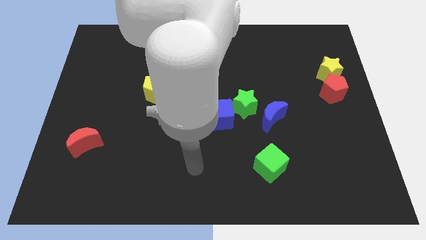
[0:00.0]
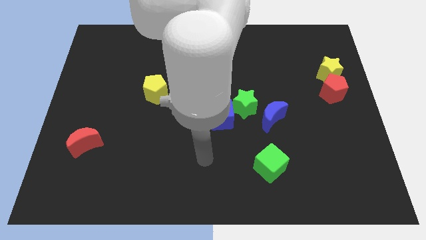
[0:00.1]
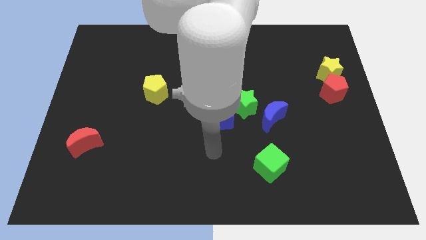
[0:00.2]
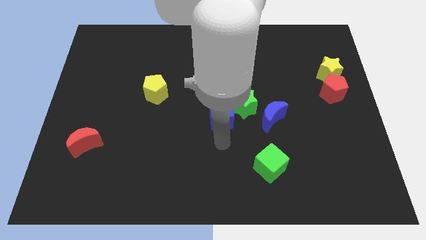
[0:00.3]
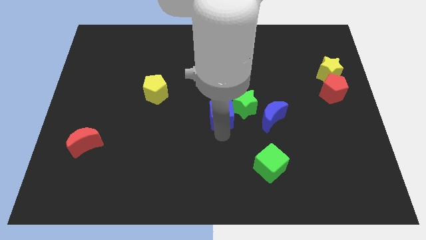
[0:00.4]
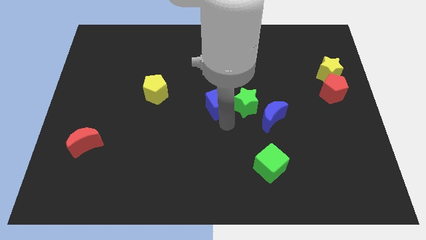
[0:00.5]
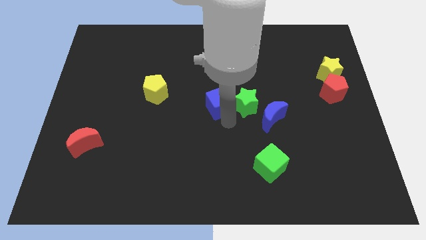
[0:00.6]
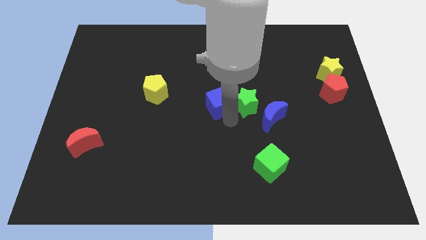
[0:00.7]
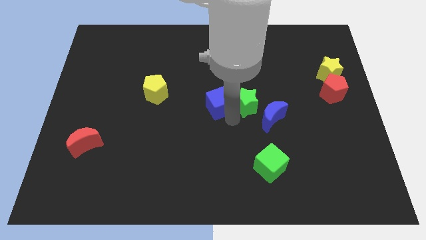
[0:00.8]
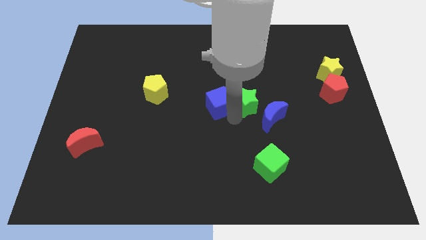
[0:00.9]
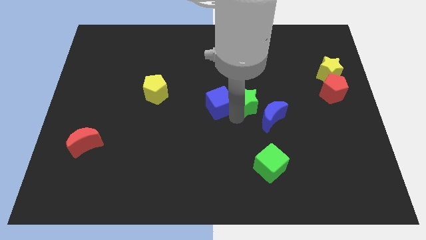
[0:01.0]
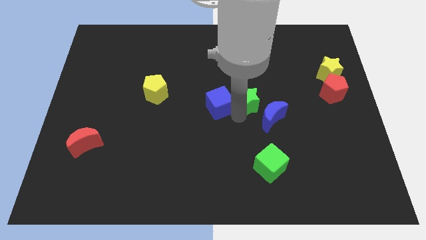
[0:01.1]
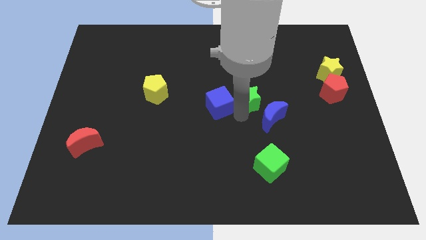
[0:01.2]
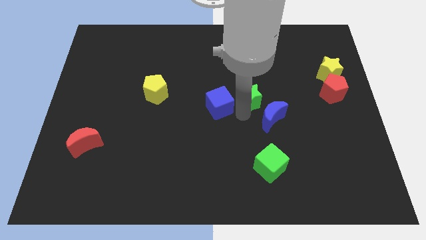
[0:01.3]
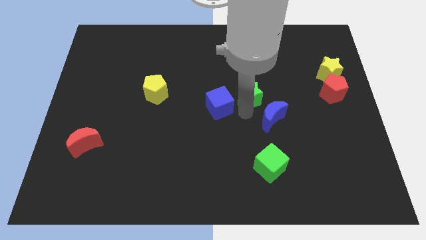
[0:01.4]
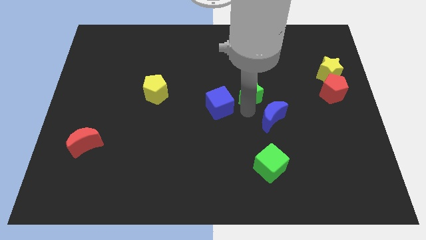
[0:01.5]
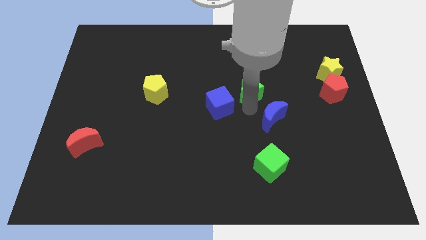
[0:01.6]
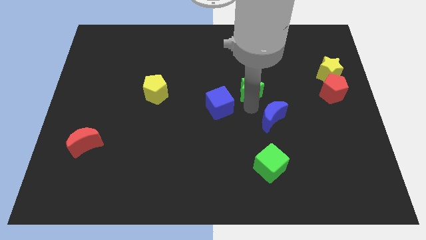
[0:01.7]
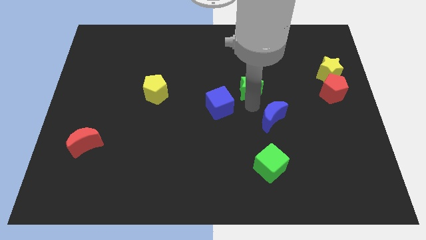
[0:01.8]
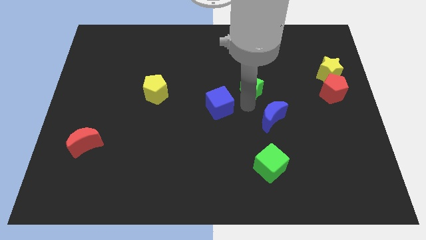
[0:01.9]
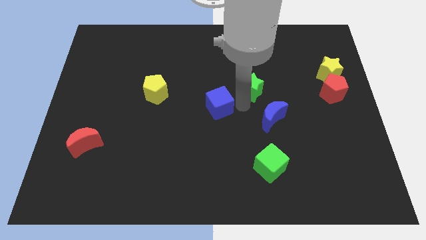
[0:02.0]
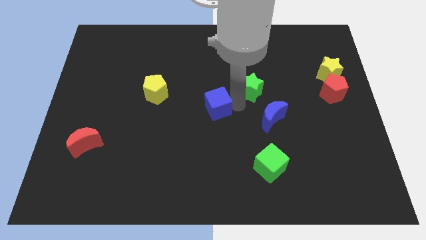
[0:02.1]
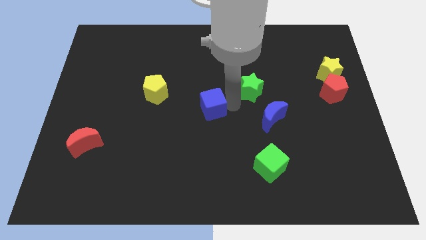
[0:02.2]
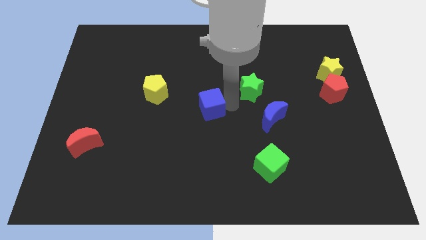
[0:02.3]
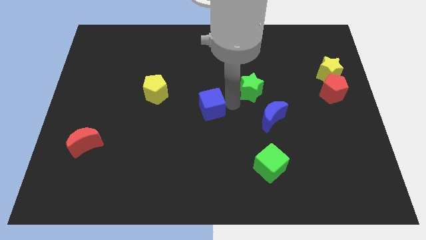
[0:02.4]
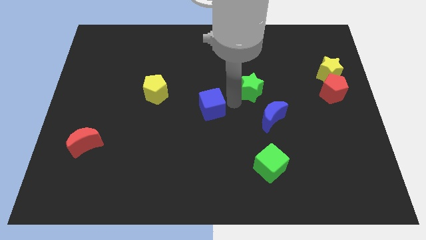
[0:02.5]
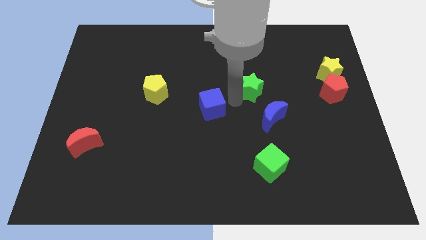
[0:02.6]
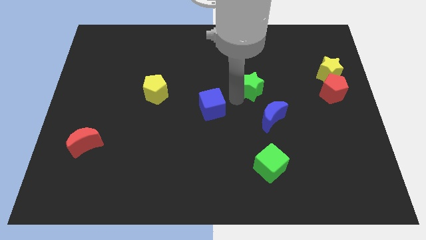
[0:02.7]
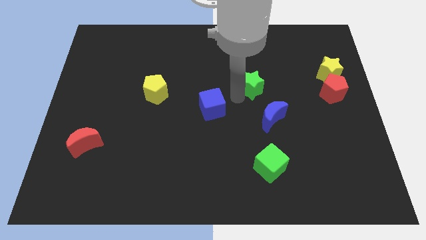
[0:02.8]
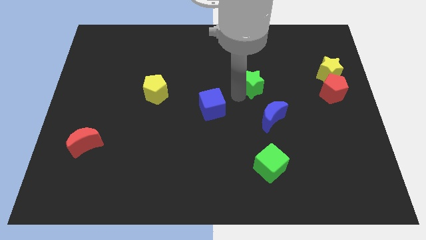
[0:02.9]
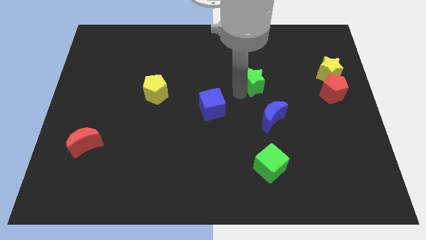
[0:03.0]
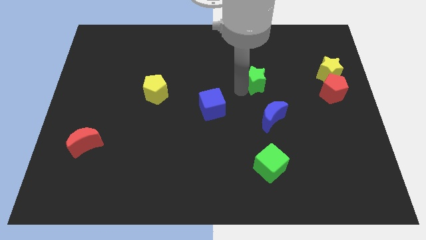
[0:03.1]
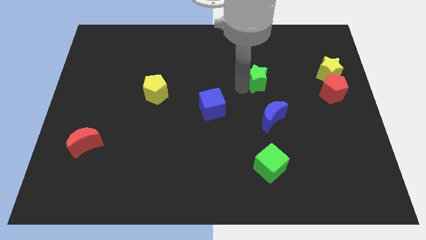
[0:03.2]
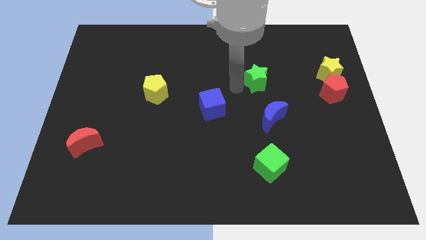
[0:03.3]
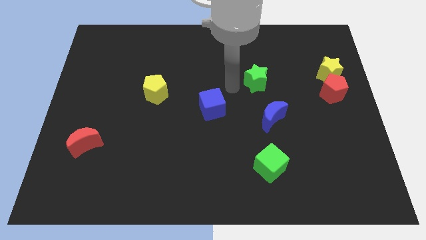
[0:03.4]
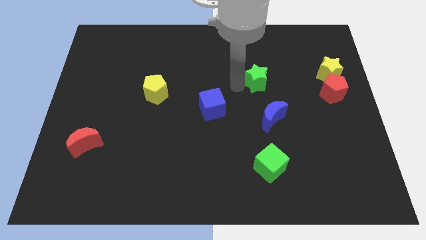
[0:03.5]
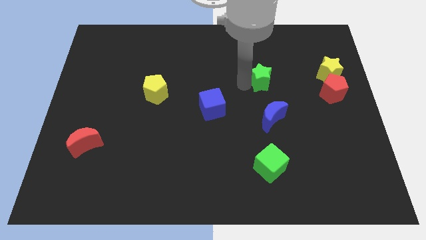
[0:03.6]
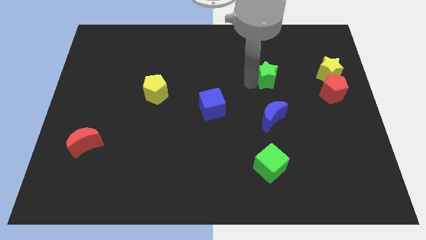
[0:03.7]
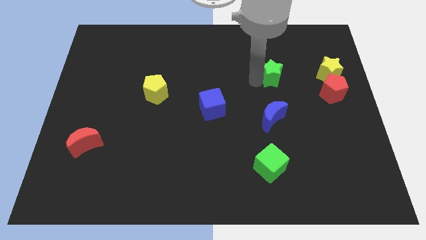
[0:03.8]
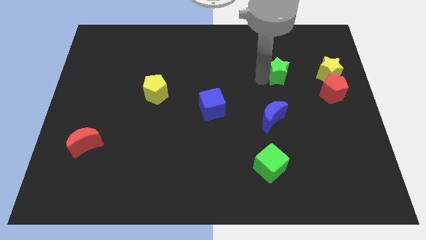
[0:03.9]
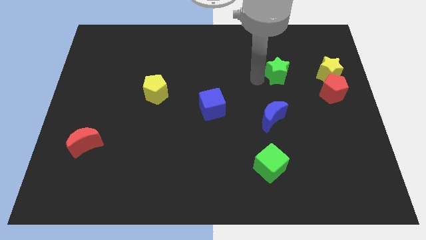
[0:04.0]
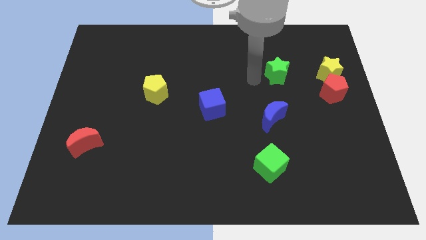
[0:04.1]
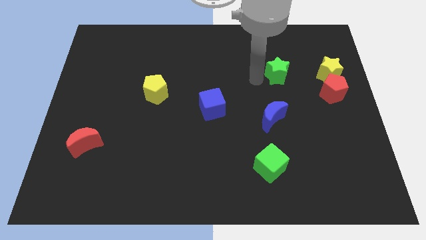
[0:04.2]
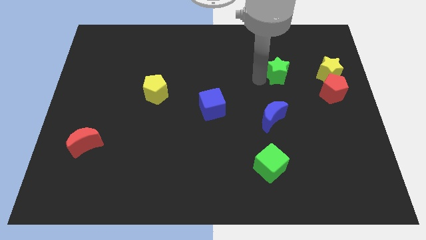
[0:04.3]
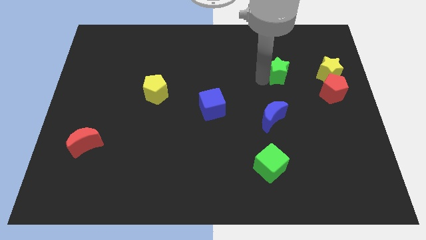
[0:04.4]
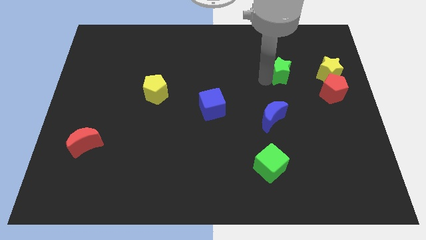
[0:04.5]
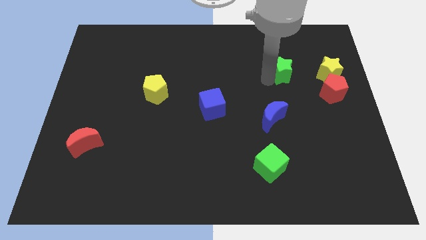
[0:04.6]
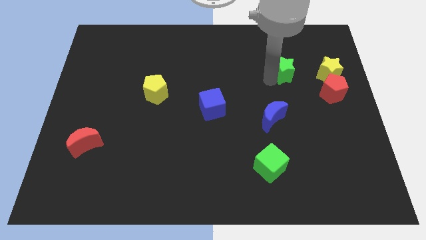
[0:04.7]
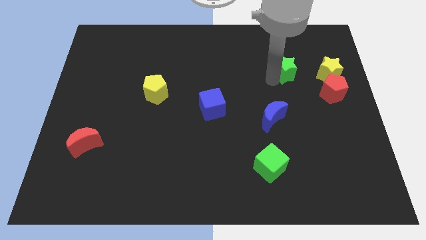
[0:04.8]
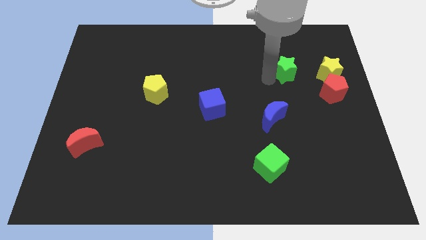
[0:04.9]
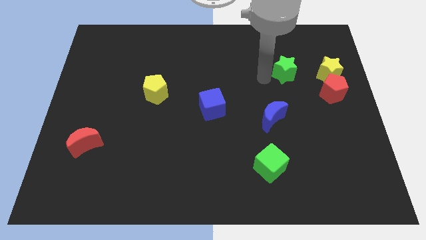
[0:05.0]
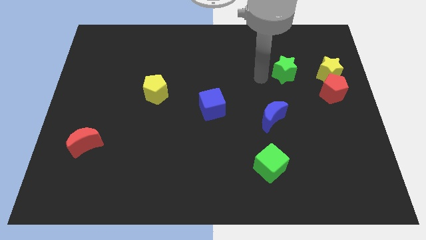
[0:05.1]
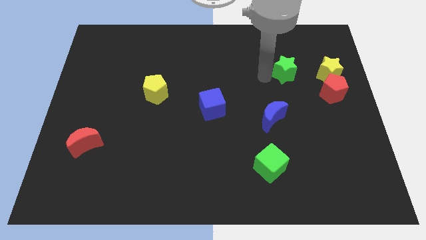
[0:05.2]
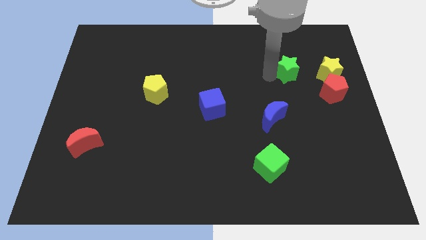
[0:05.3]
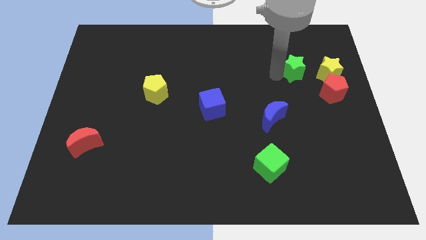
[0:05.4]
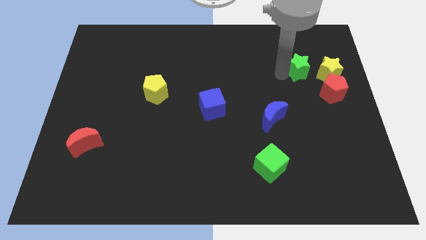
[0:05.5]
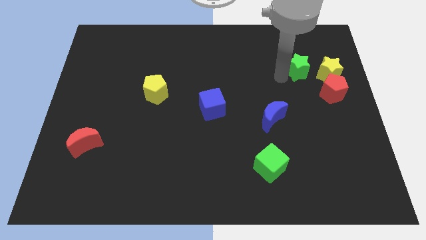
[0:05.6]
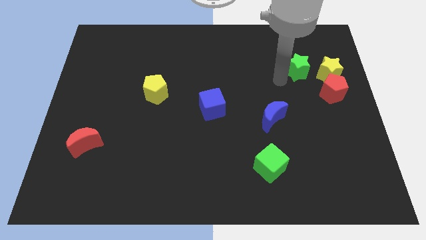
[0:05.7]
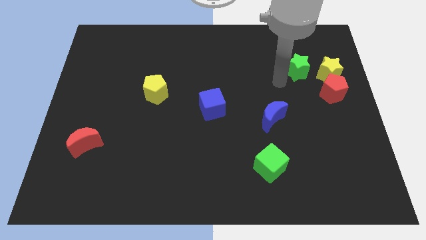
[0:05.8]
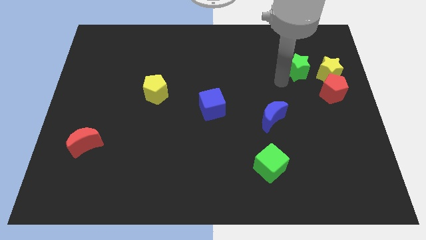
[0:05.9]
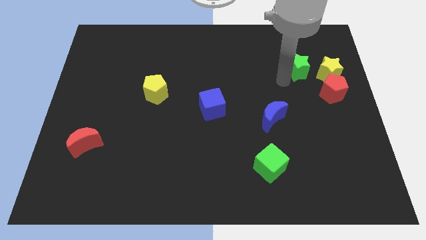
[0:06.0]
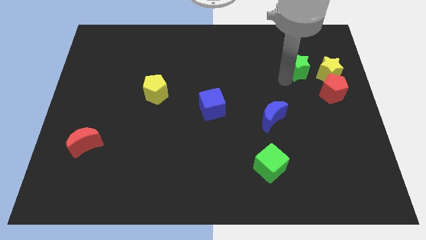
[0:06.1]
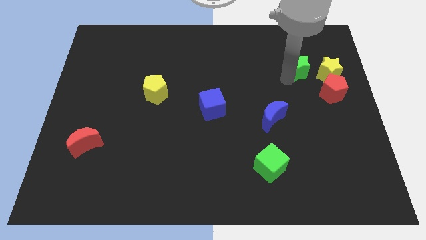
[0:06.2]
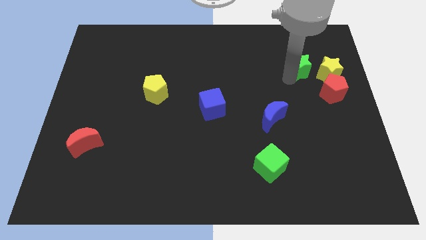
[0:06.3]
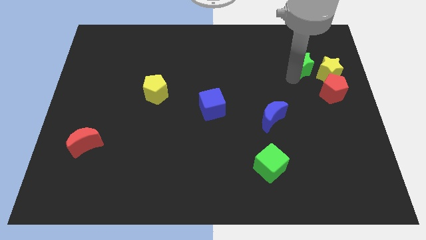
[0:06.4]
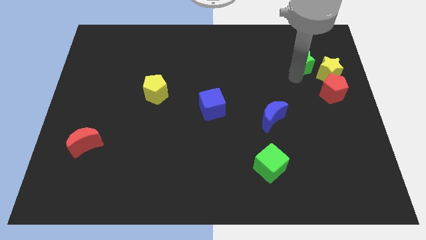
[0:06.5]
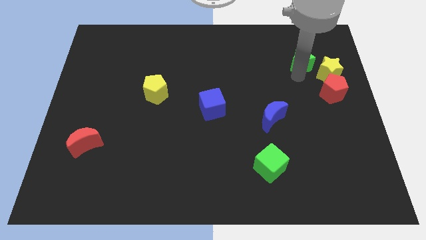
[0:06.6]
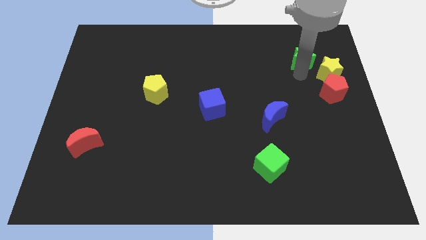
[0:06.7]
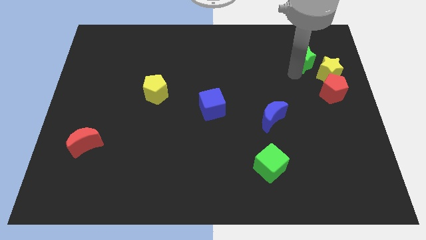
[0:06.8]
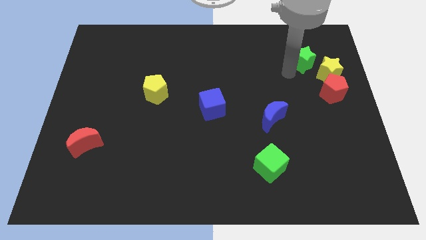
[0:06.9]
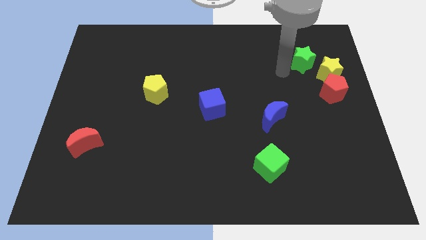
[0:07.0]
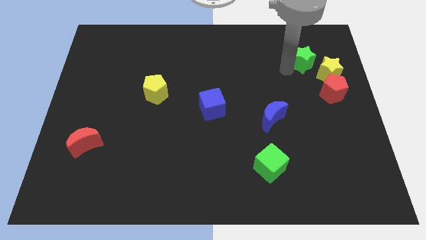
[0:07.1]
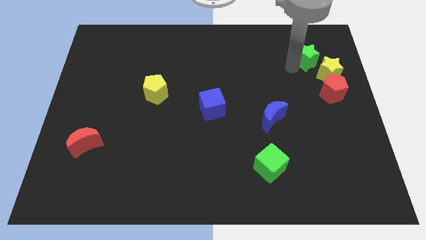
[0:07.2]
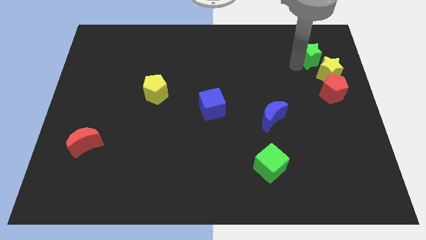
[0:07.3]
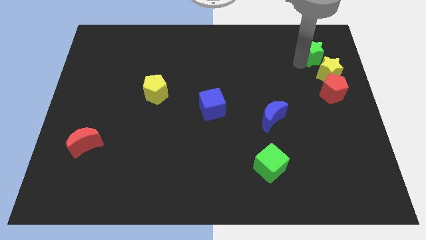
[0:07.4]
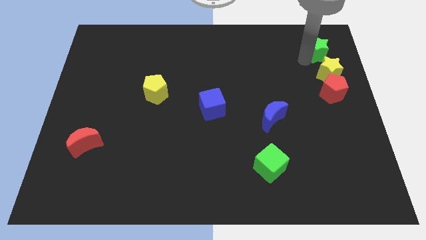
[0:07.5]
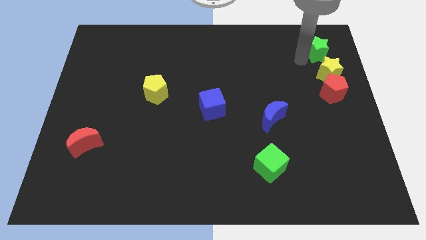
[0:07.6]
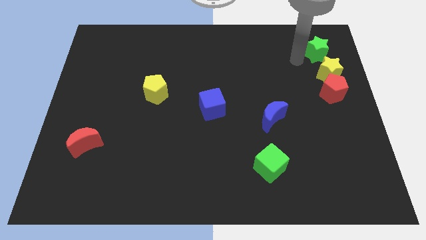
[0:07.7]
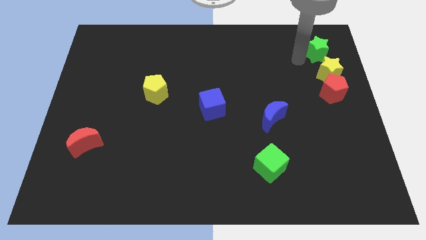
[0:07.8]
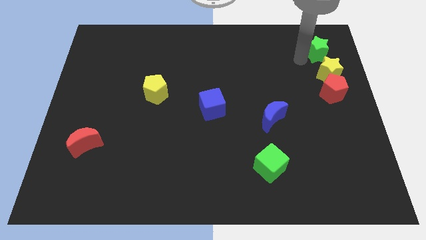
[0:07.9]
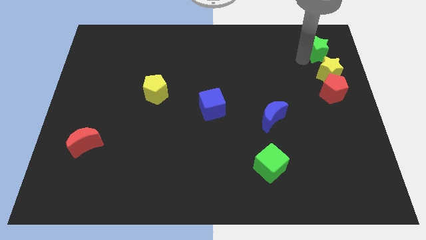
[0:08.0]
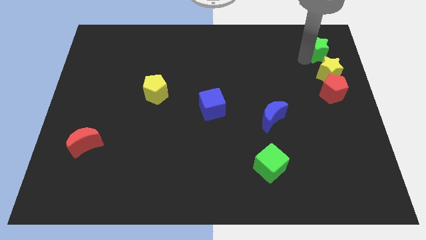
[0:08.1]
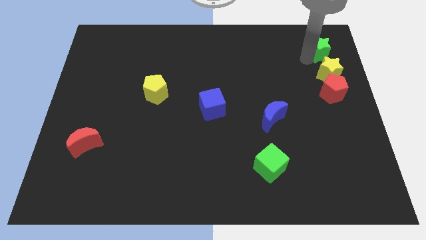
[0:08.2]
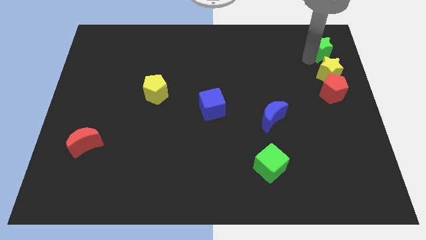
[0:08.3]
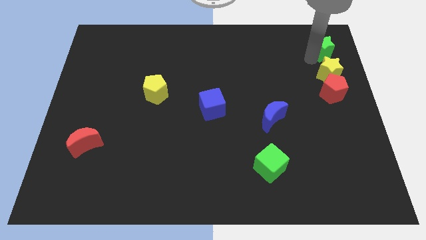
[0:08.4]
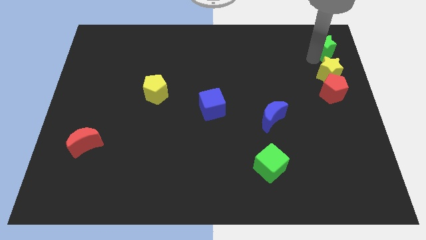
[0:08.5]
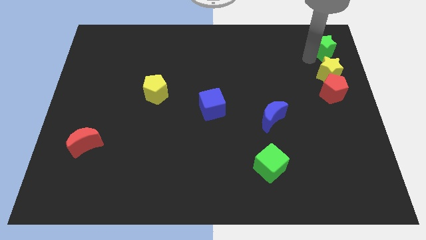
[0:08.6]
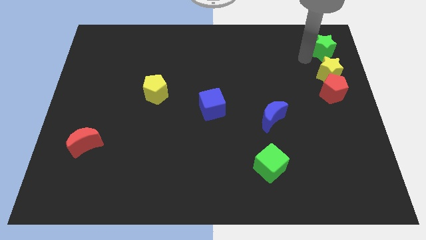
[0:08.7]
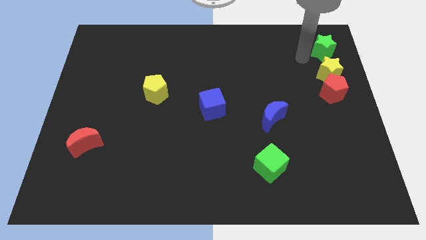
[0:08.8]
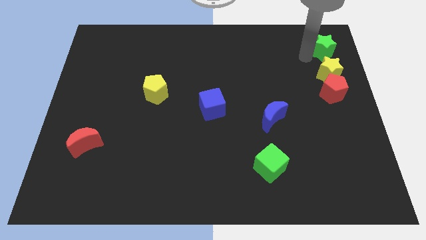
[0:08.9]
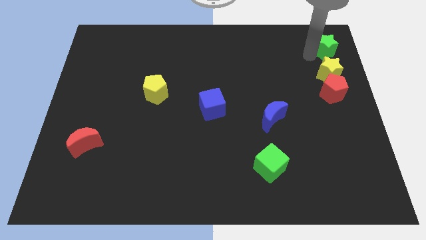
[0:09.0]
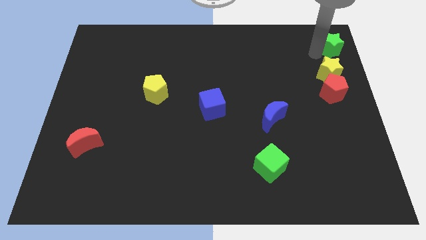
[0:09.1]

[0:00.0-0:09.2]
move the green star to the top right corner
